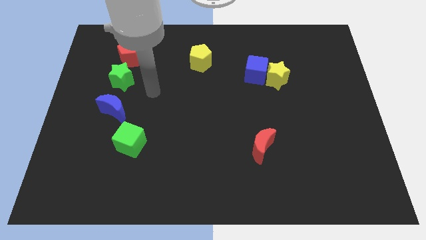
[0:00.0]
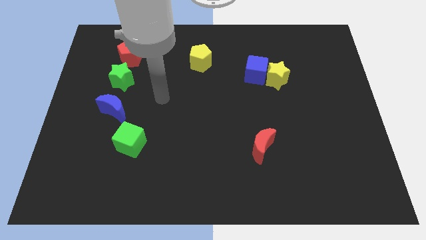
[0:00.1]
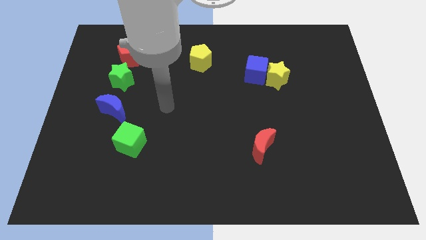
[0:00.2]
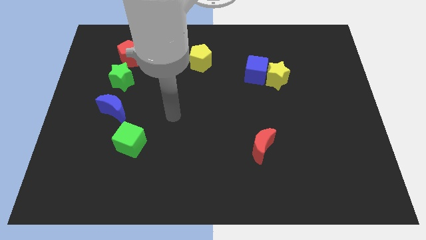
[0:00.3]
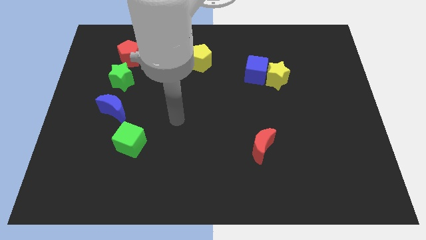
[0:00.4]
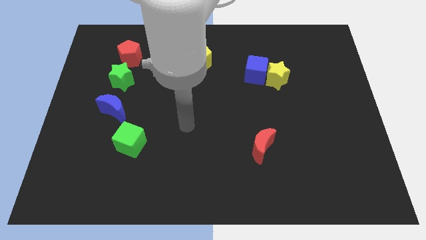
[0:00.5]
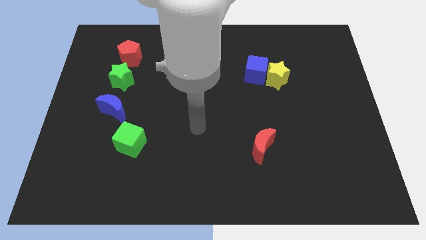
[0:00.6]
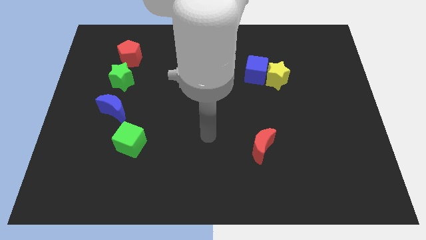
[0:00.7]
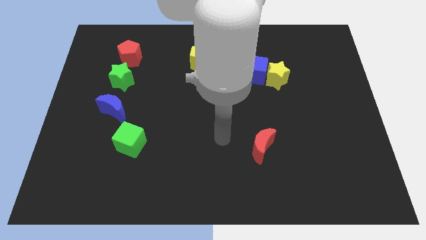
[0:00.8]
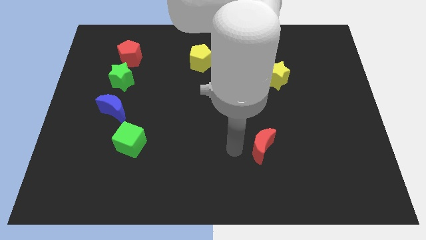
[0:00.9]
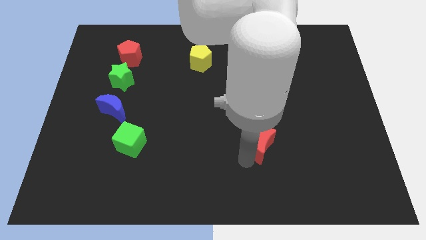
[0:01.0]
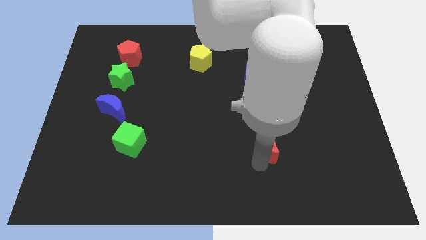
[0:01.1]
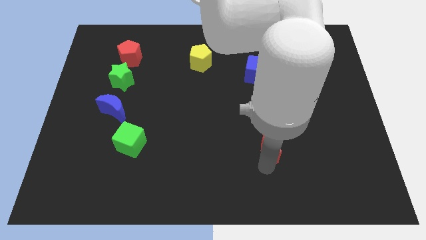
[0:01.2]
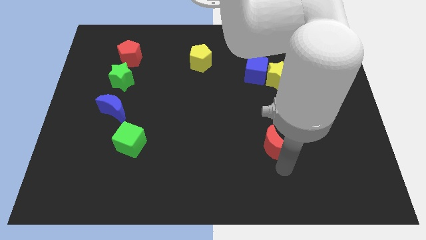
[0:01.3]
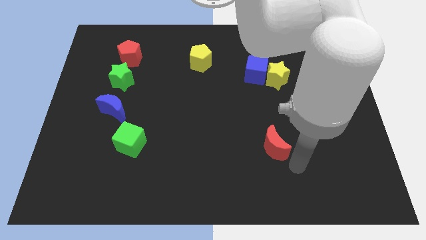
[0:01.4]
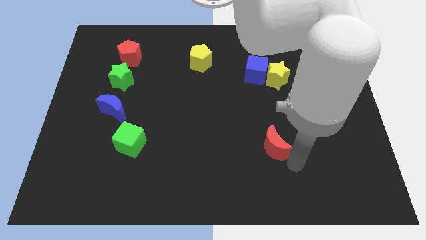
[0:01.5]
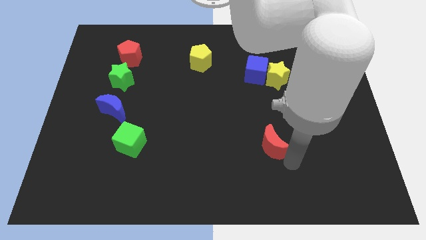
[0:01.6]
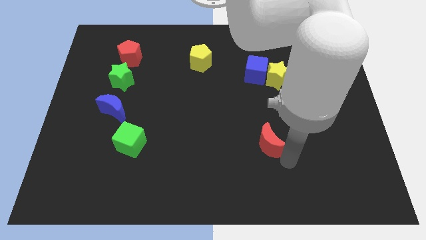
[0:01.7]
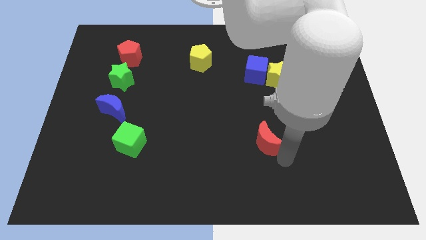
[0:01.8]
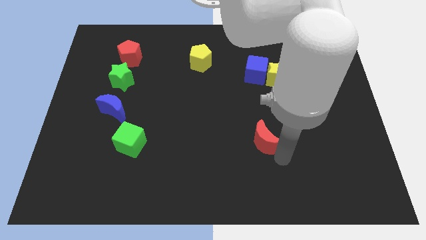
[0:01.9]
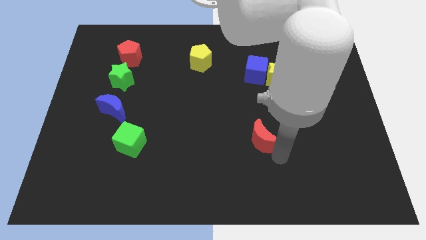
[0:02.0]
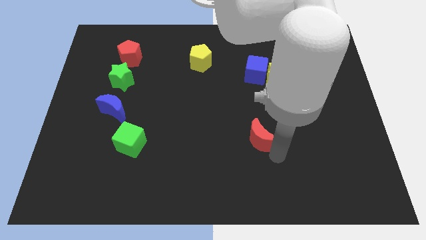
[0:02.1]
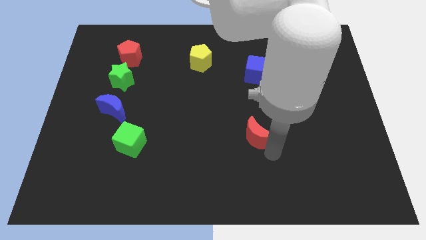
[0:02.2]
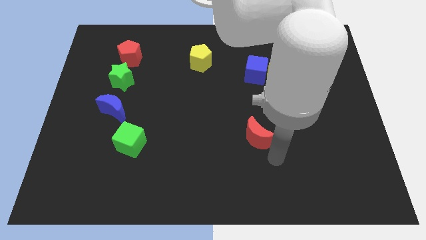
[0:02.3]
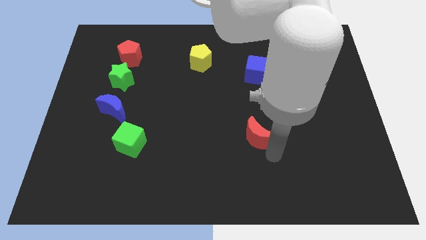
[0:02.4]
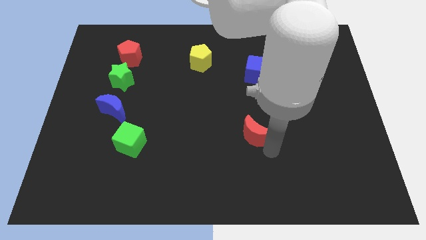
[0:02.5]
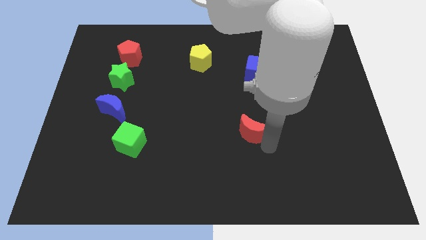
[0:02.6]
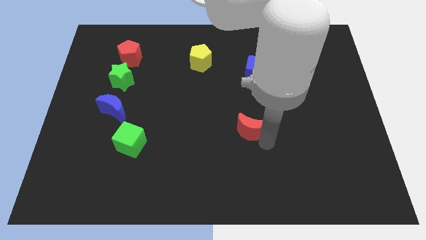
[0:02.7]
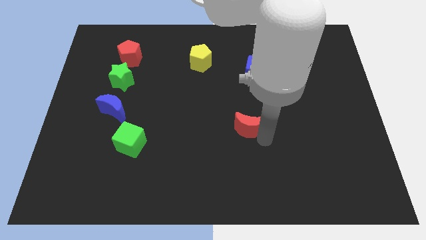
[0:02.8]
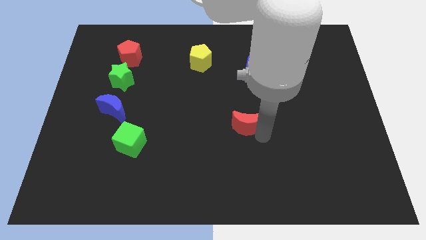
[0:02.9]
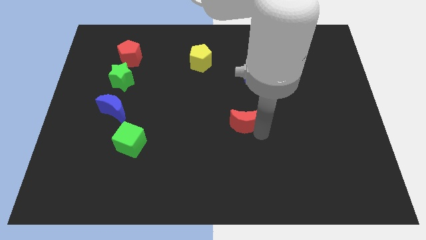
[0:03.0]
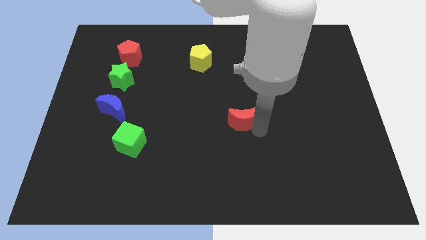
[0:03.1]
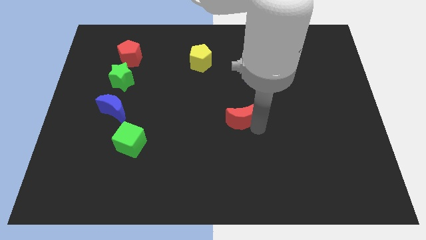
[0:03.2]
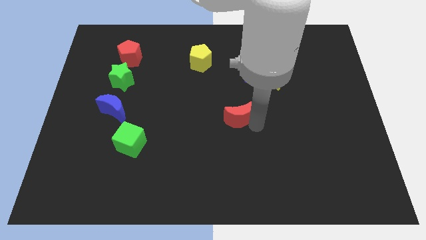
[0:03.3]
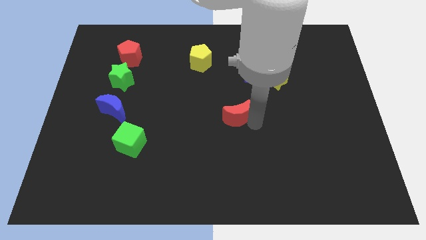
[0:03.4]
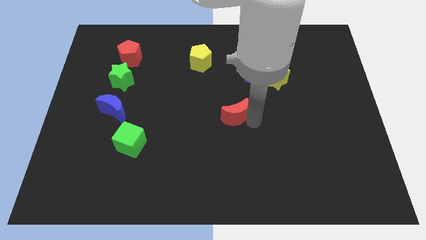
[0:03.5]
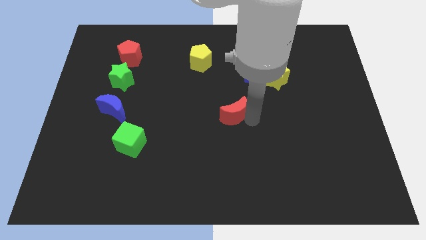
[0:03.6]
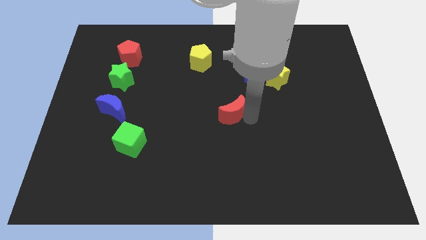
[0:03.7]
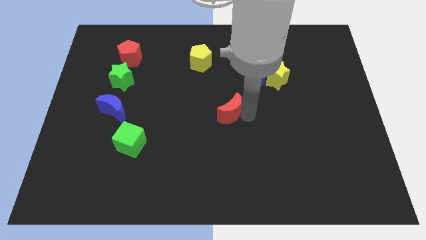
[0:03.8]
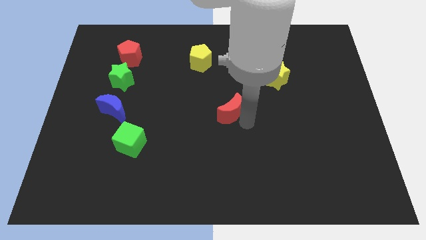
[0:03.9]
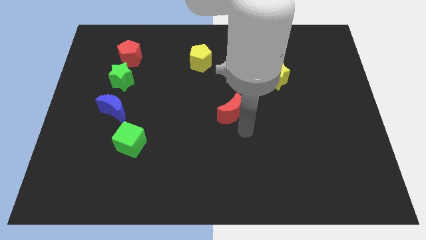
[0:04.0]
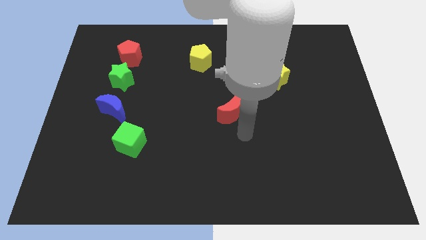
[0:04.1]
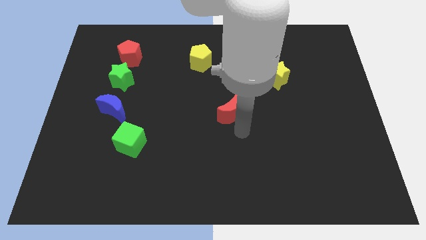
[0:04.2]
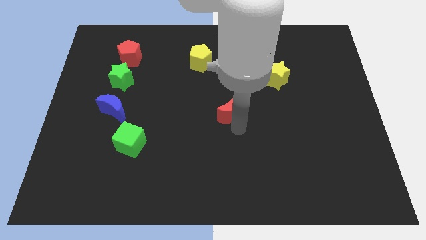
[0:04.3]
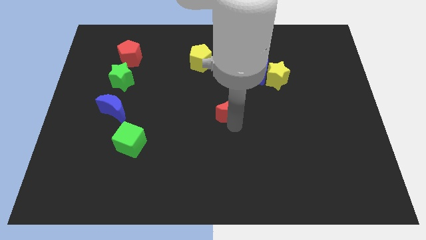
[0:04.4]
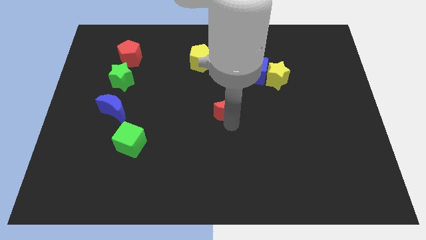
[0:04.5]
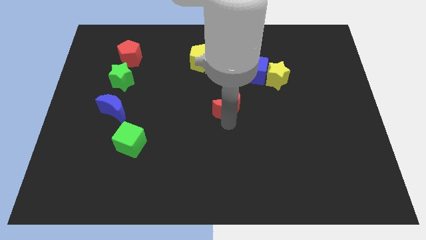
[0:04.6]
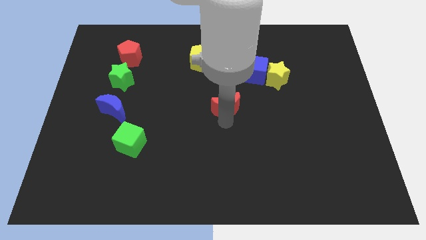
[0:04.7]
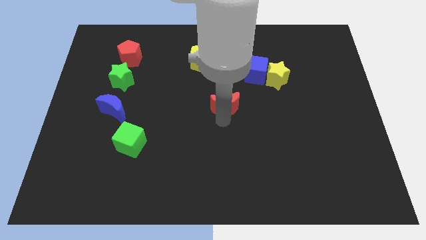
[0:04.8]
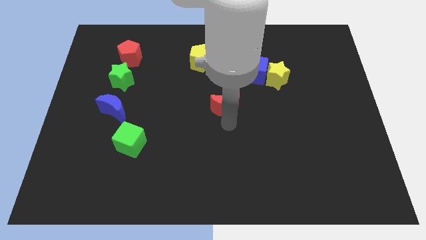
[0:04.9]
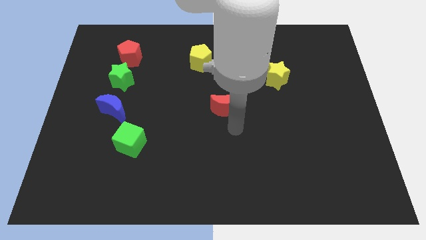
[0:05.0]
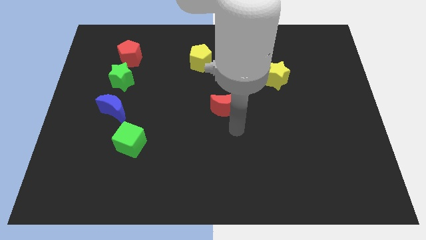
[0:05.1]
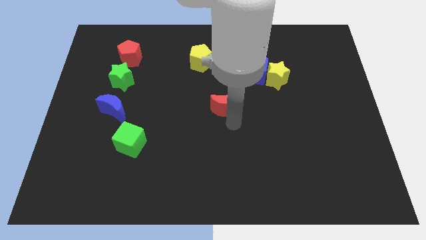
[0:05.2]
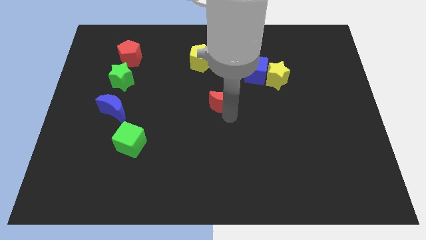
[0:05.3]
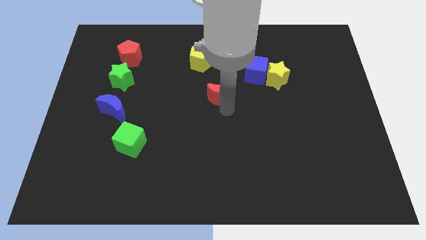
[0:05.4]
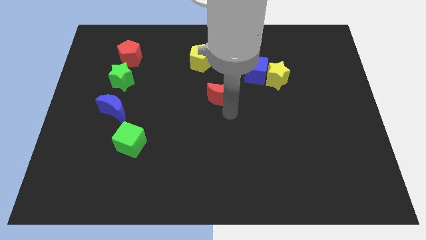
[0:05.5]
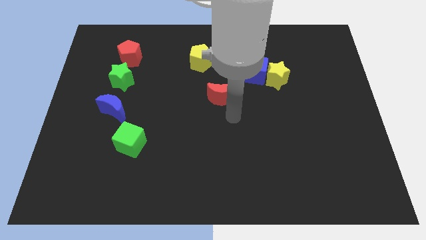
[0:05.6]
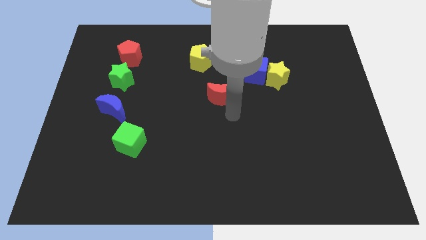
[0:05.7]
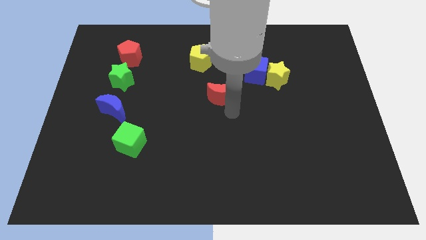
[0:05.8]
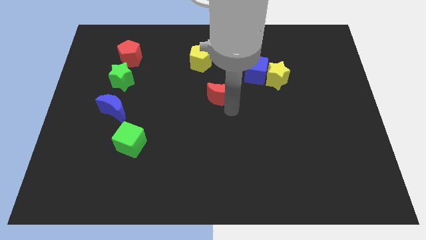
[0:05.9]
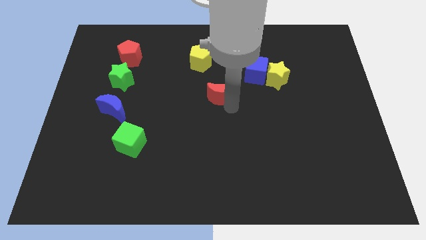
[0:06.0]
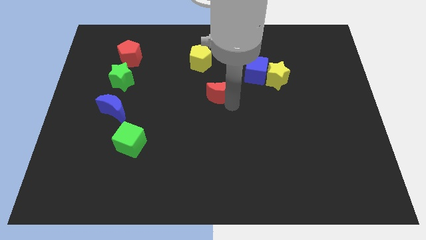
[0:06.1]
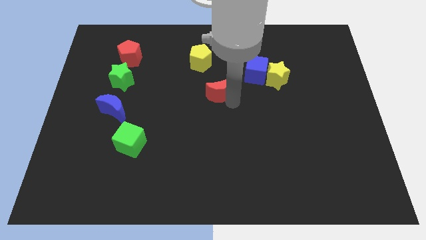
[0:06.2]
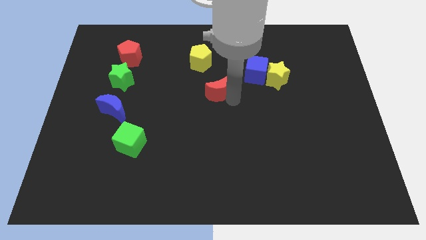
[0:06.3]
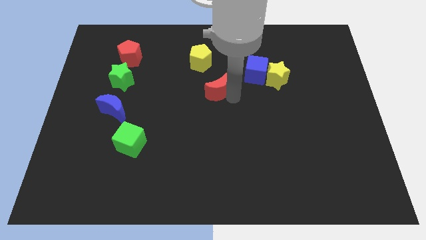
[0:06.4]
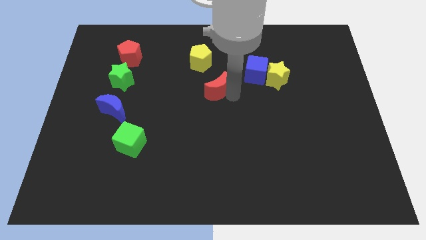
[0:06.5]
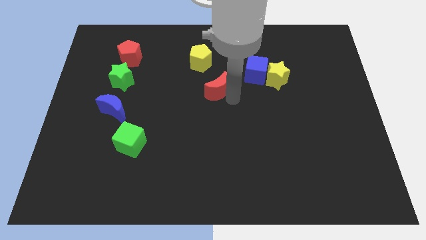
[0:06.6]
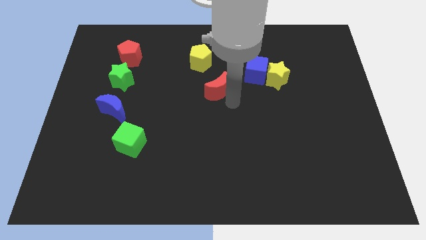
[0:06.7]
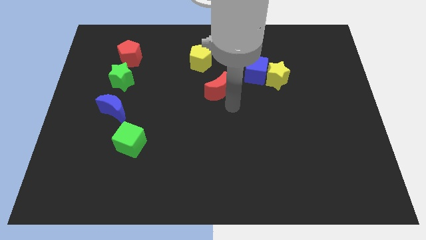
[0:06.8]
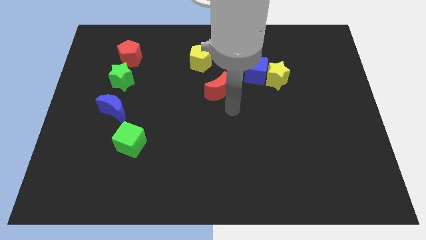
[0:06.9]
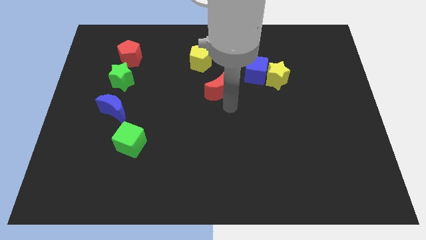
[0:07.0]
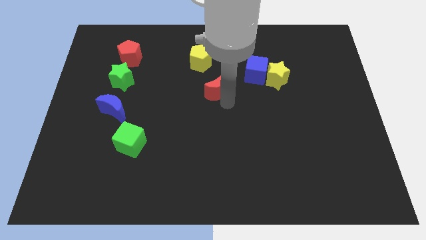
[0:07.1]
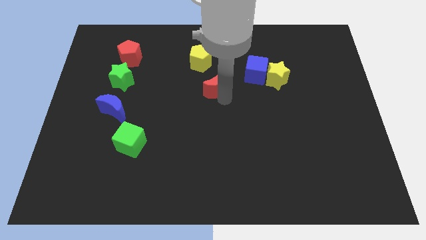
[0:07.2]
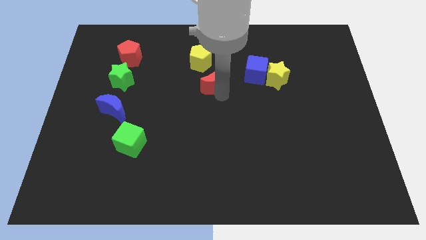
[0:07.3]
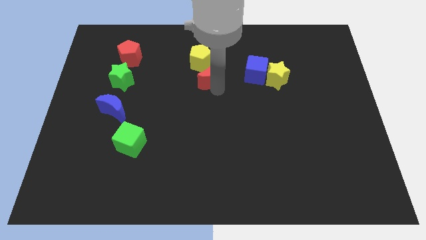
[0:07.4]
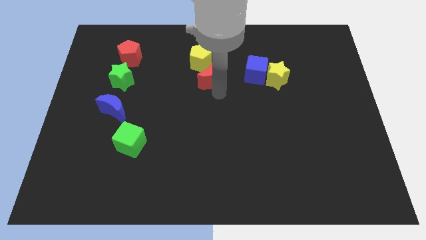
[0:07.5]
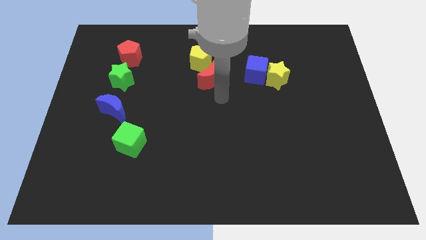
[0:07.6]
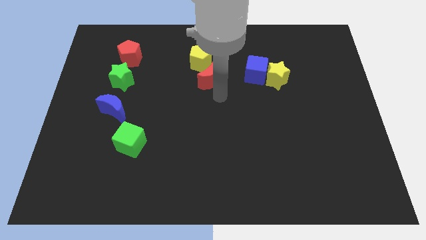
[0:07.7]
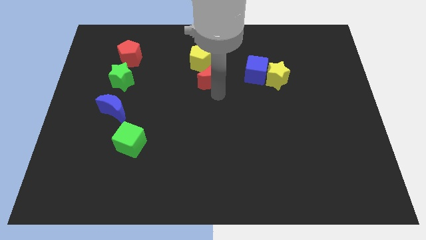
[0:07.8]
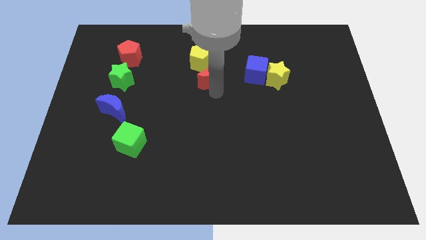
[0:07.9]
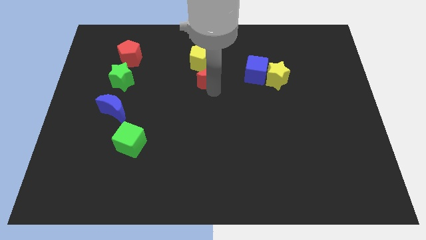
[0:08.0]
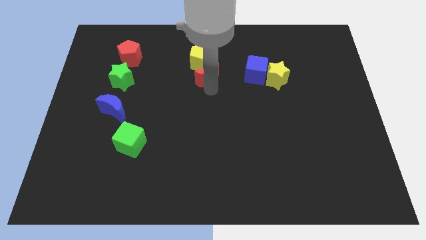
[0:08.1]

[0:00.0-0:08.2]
slide the red moon close to the yellow pentagon

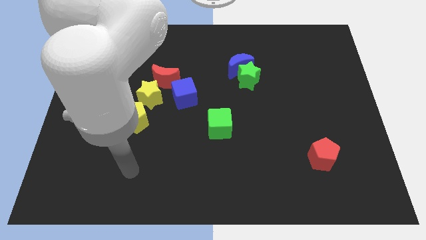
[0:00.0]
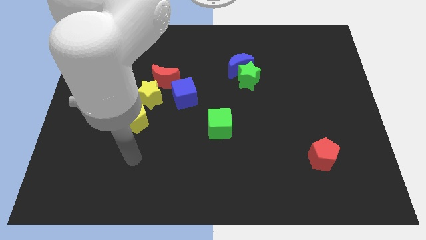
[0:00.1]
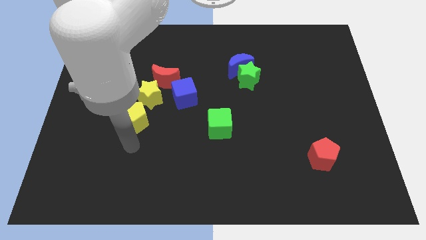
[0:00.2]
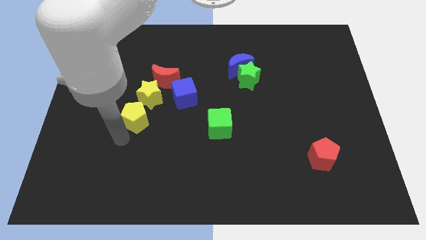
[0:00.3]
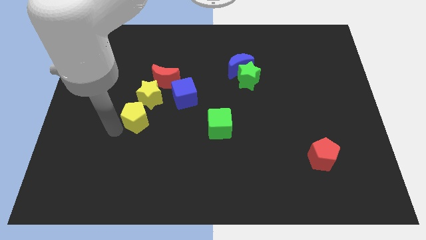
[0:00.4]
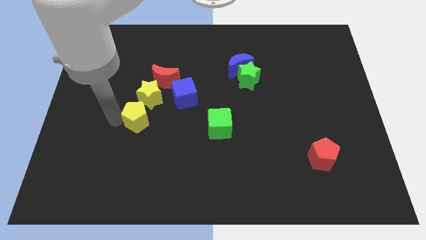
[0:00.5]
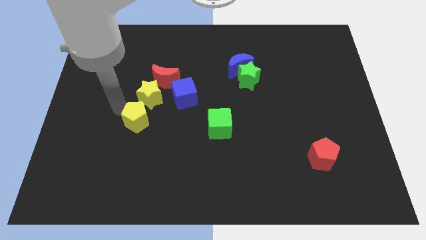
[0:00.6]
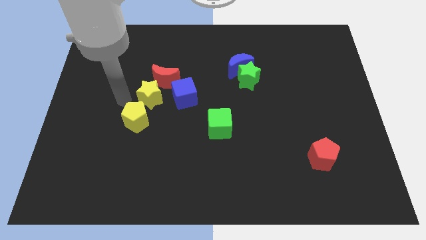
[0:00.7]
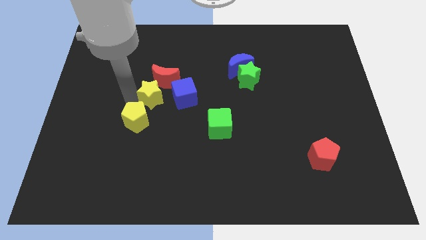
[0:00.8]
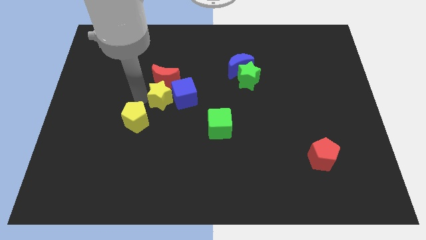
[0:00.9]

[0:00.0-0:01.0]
move the yellow star close to the blue cube
